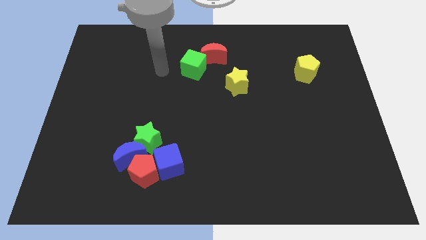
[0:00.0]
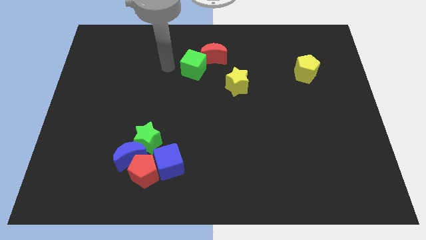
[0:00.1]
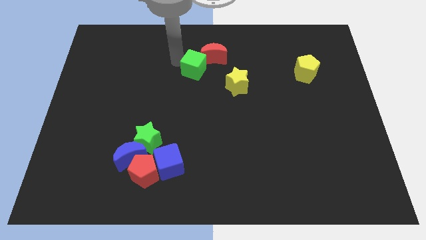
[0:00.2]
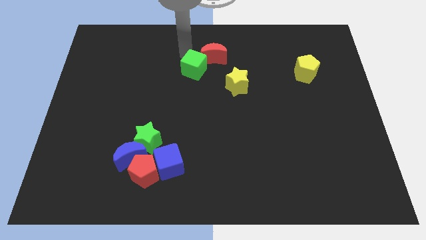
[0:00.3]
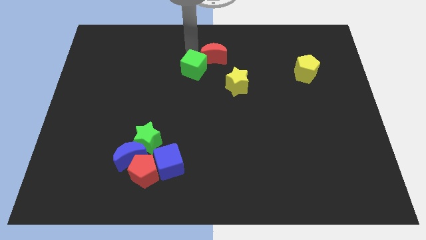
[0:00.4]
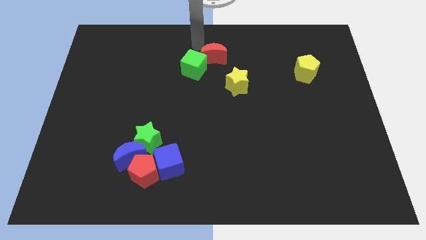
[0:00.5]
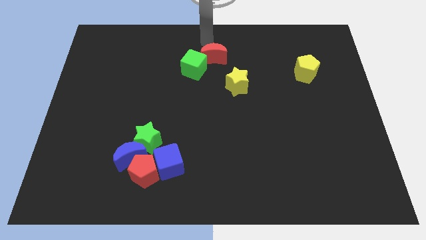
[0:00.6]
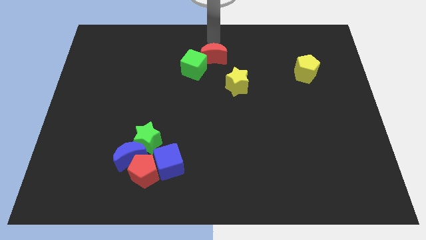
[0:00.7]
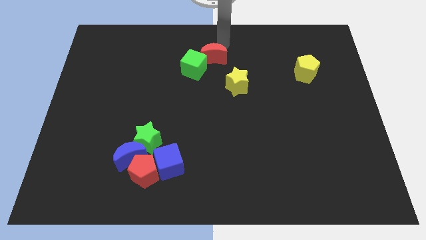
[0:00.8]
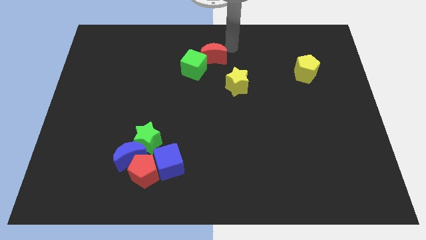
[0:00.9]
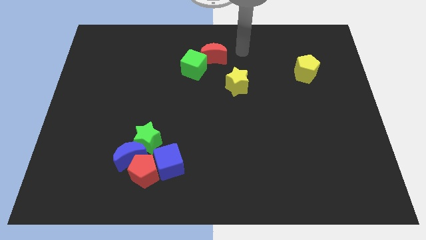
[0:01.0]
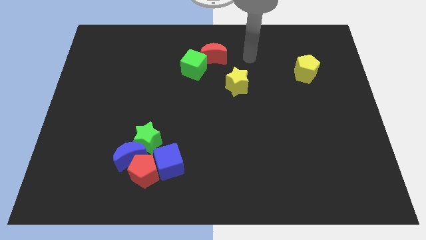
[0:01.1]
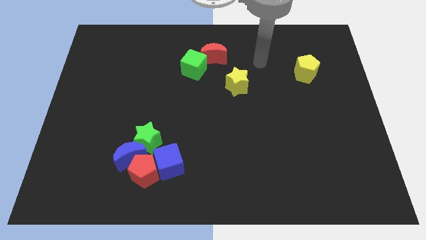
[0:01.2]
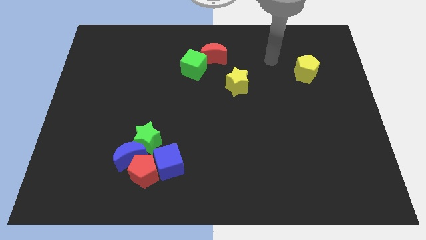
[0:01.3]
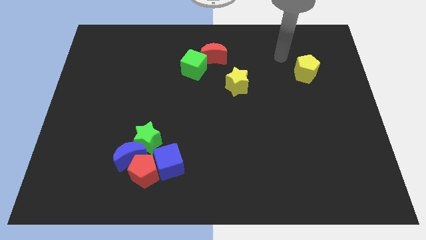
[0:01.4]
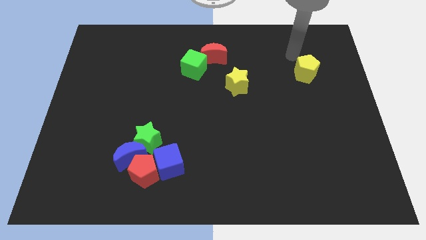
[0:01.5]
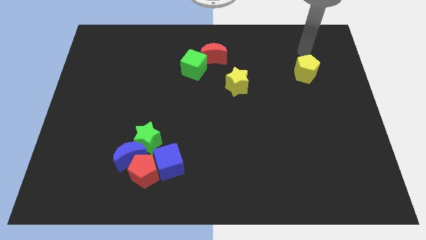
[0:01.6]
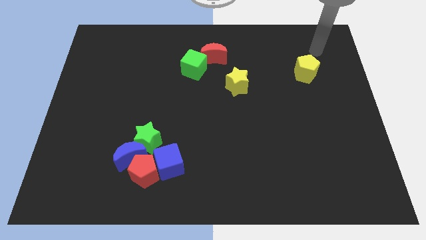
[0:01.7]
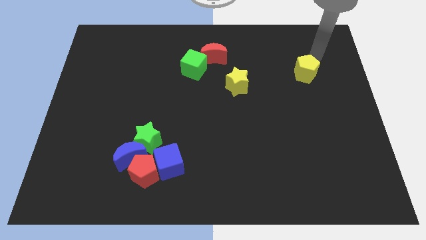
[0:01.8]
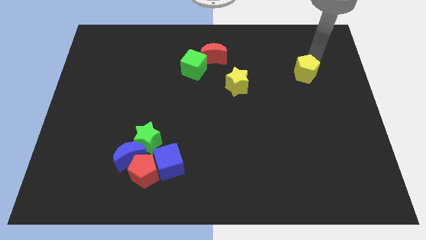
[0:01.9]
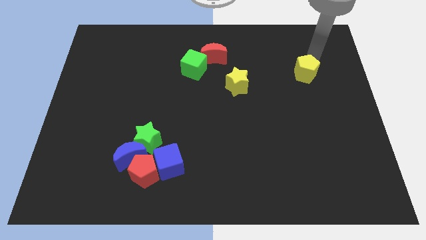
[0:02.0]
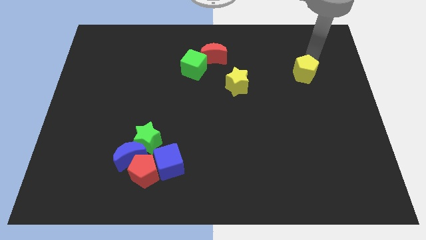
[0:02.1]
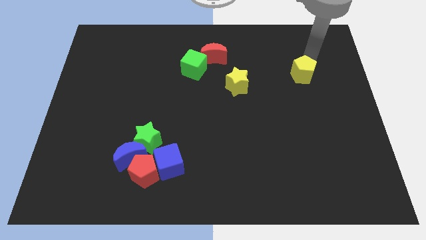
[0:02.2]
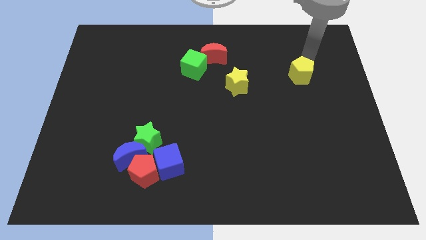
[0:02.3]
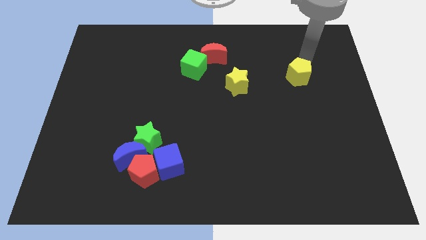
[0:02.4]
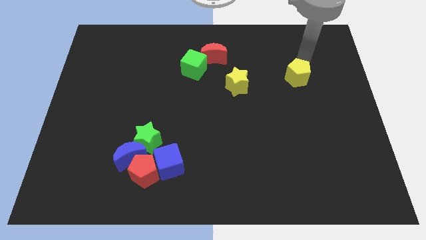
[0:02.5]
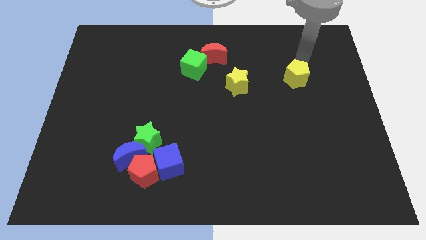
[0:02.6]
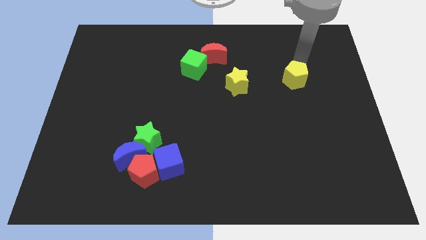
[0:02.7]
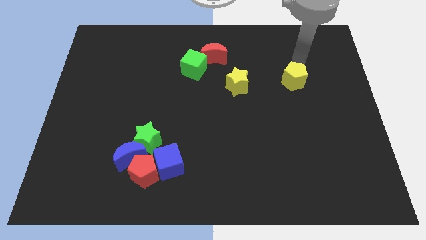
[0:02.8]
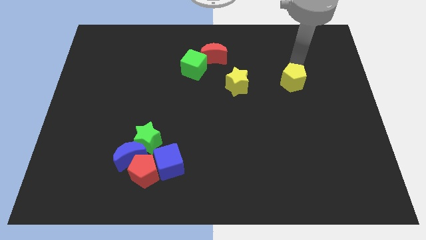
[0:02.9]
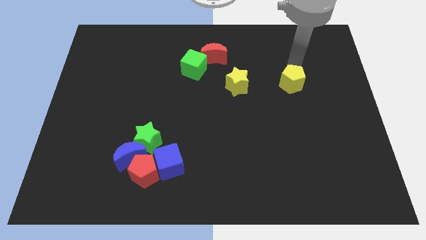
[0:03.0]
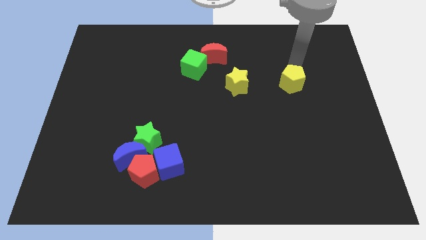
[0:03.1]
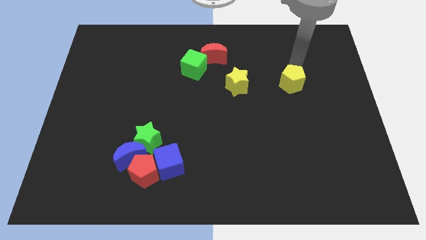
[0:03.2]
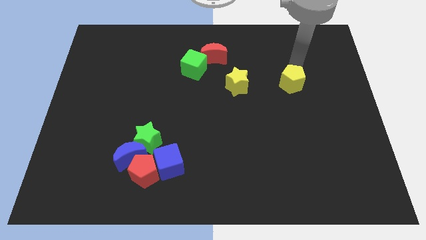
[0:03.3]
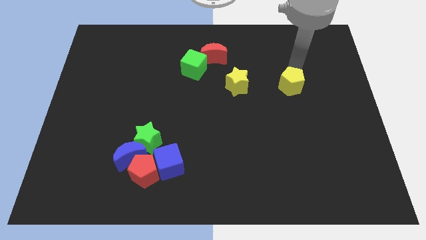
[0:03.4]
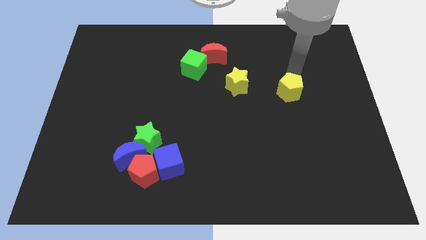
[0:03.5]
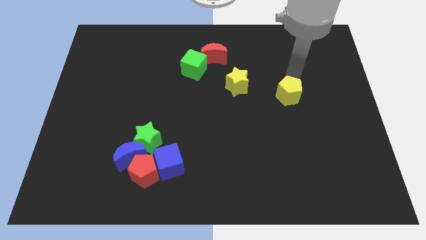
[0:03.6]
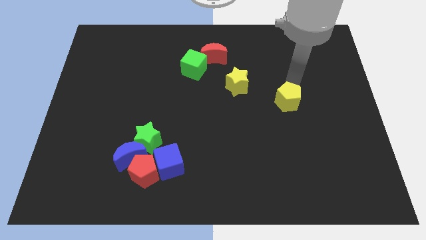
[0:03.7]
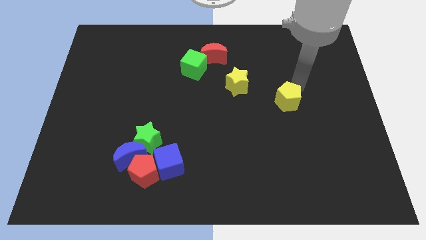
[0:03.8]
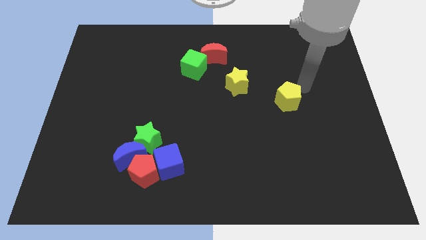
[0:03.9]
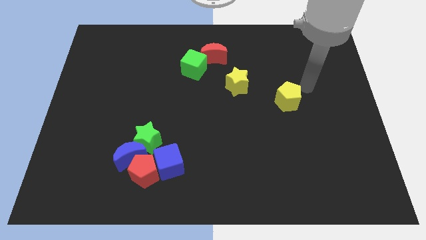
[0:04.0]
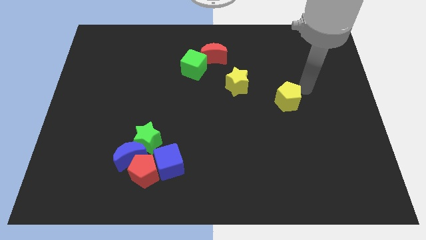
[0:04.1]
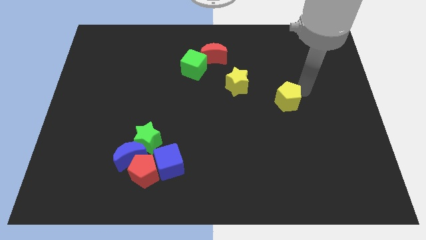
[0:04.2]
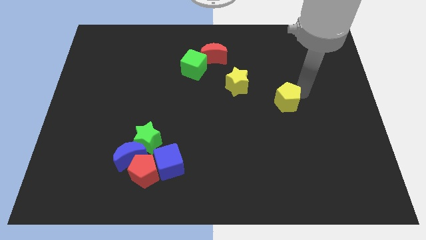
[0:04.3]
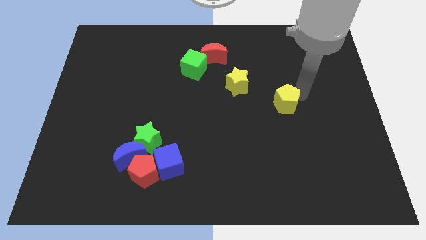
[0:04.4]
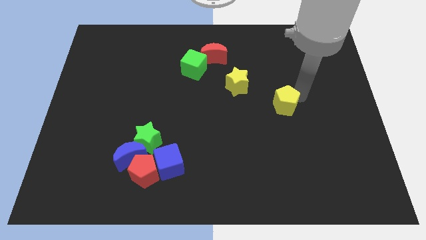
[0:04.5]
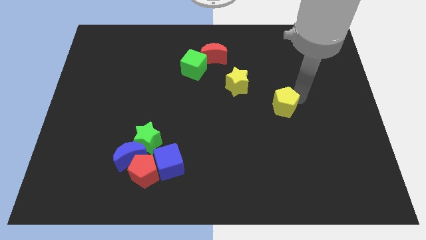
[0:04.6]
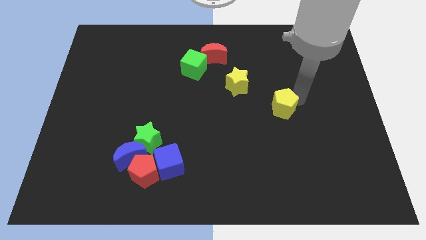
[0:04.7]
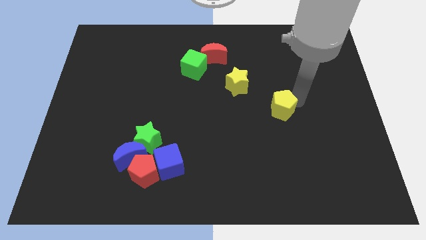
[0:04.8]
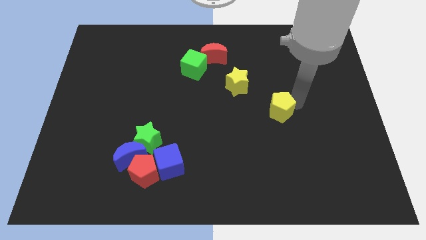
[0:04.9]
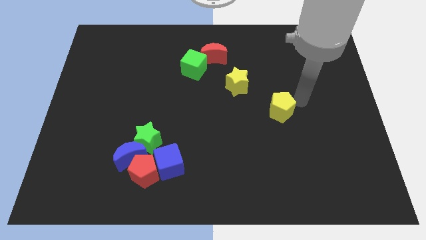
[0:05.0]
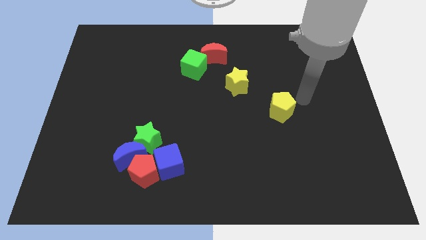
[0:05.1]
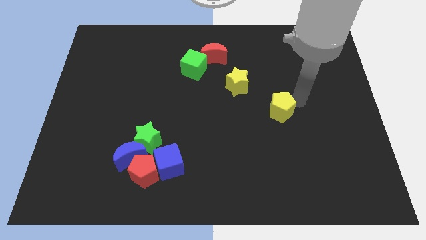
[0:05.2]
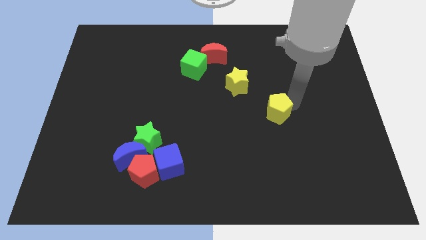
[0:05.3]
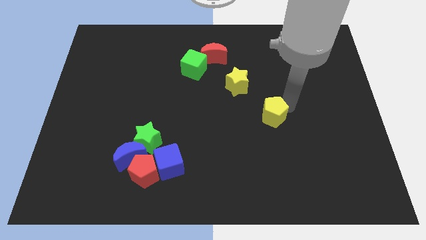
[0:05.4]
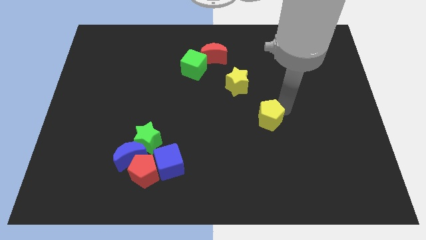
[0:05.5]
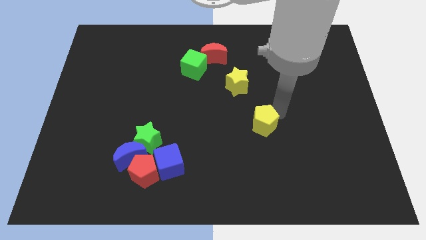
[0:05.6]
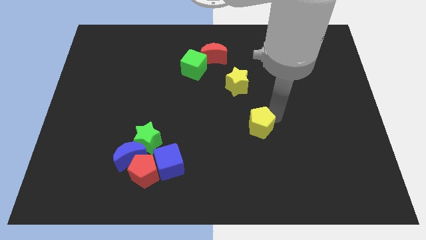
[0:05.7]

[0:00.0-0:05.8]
slide the yellow pentagon downwards and to the left diagonally

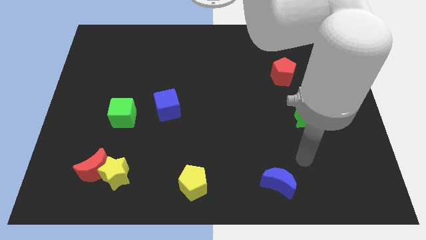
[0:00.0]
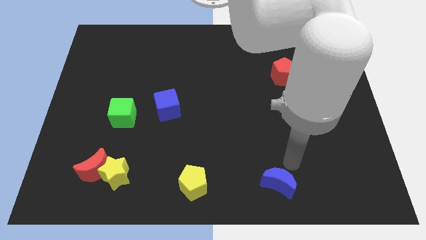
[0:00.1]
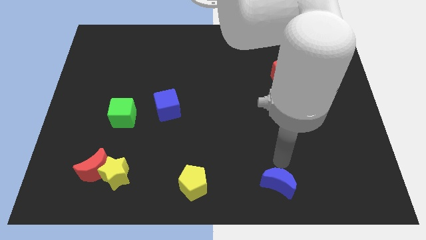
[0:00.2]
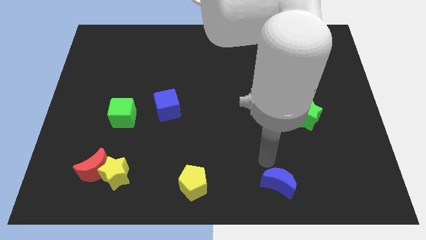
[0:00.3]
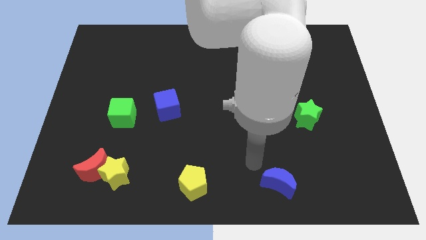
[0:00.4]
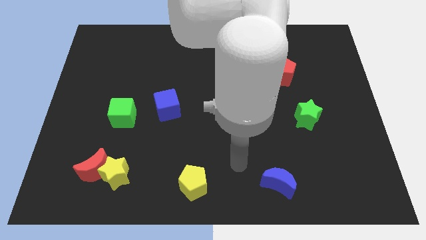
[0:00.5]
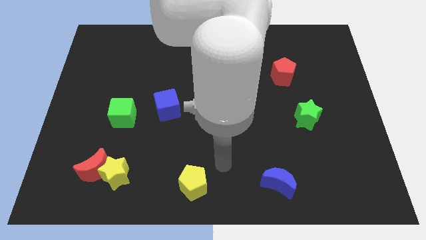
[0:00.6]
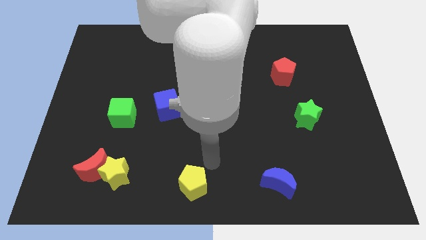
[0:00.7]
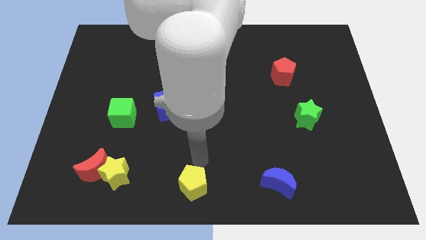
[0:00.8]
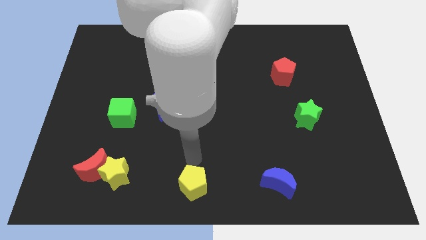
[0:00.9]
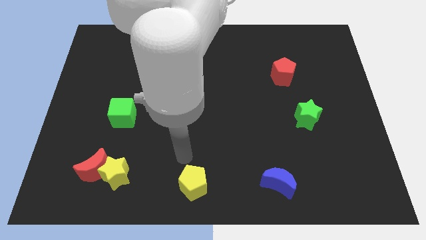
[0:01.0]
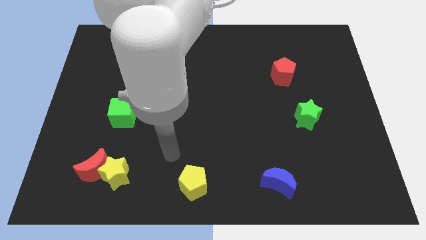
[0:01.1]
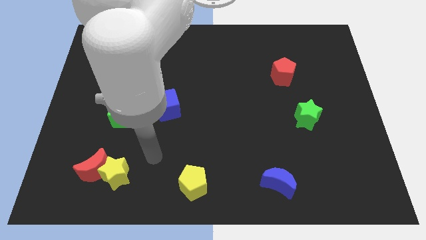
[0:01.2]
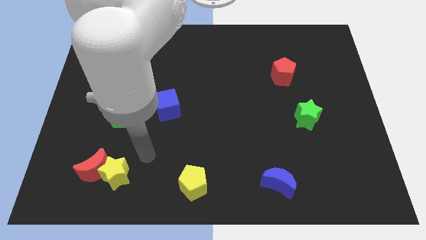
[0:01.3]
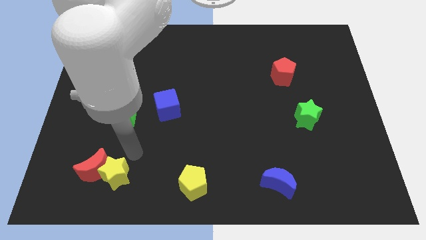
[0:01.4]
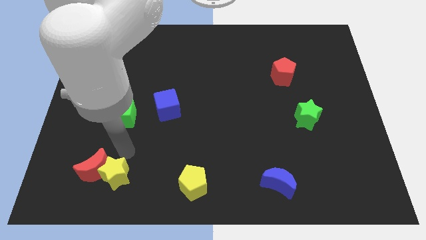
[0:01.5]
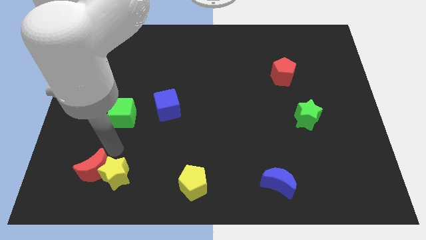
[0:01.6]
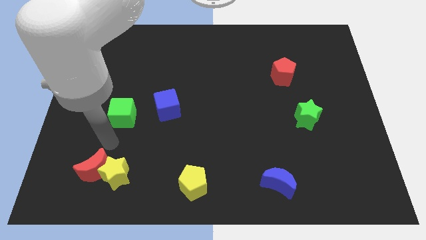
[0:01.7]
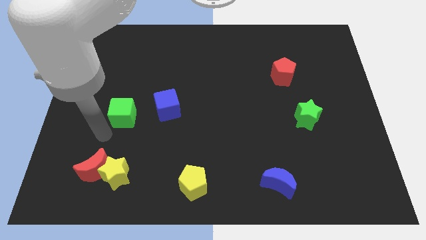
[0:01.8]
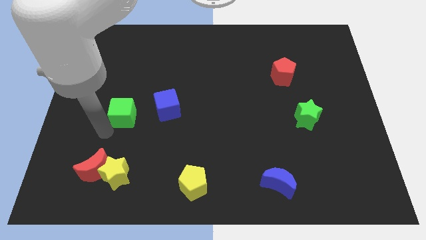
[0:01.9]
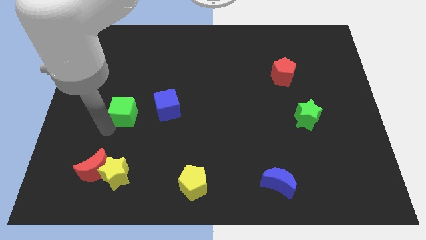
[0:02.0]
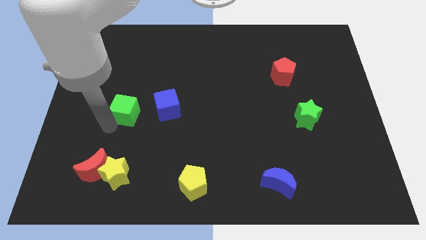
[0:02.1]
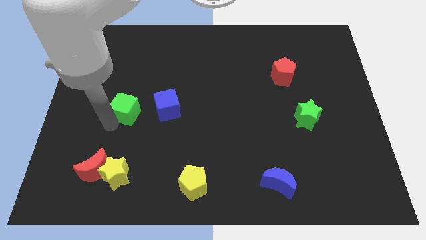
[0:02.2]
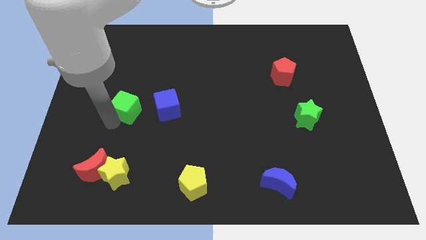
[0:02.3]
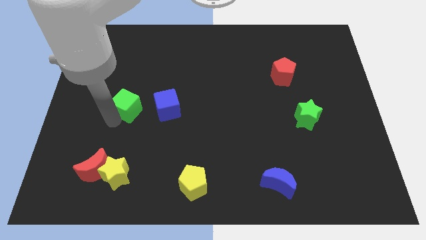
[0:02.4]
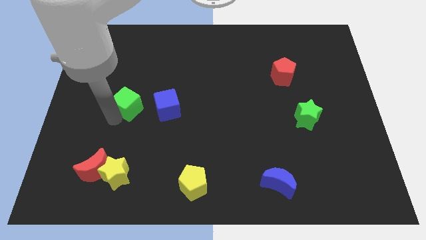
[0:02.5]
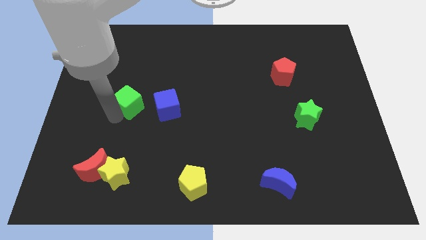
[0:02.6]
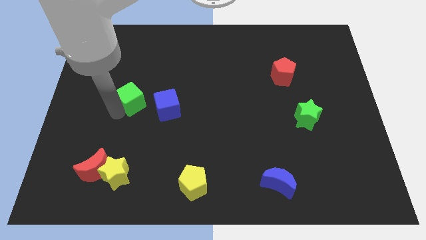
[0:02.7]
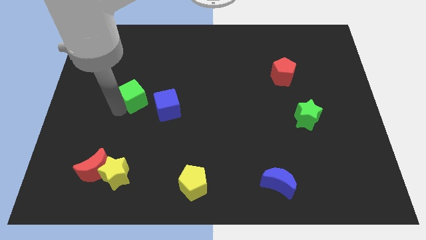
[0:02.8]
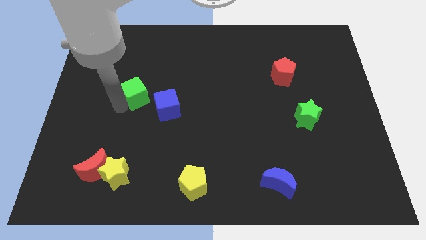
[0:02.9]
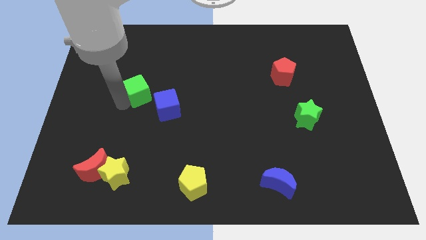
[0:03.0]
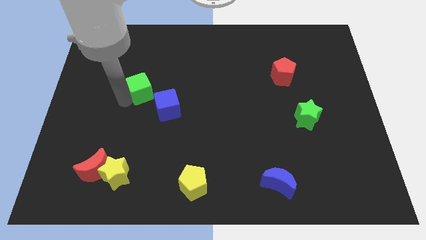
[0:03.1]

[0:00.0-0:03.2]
slightly move the green cube upwards and then to the right
